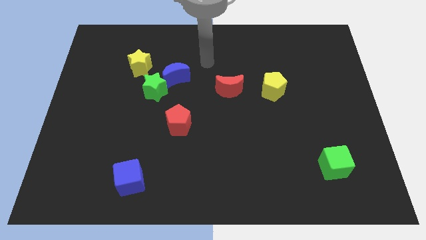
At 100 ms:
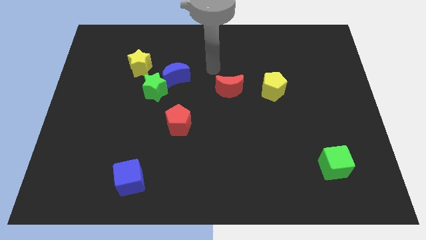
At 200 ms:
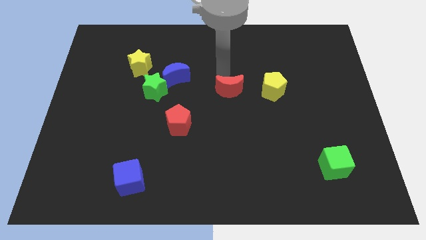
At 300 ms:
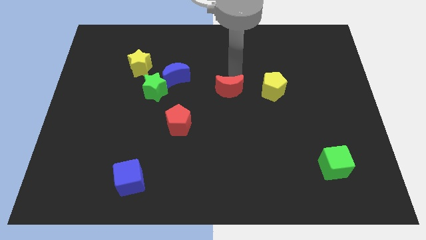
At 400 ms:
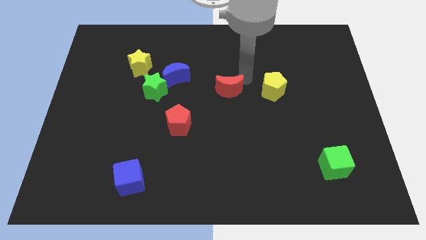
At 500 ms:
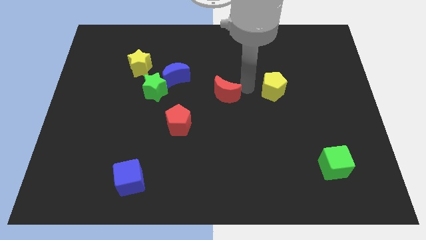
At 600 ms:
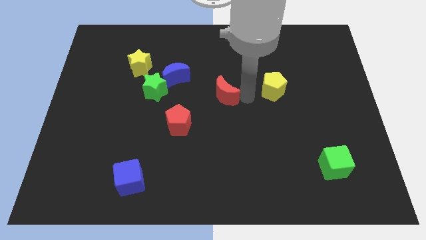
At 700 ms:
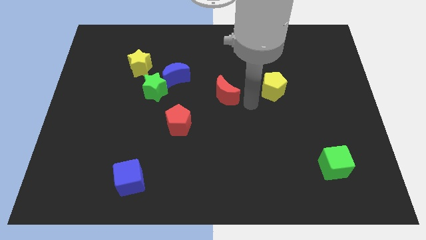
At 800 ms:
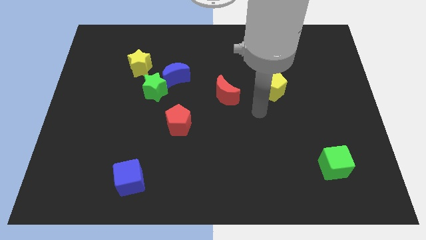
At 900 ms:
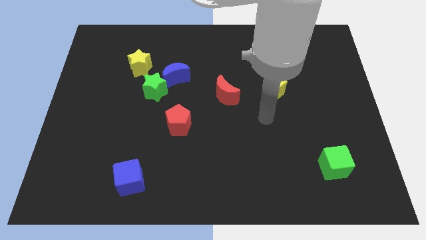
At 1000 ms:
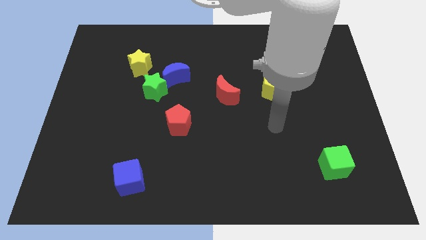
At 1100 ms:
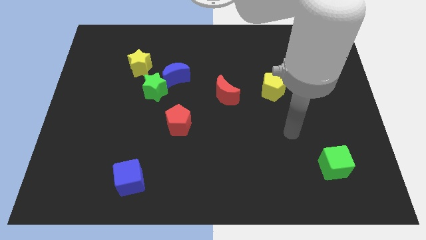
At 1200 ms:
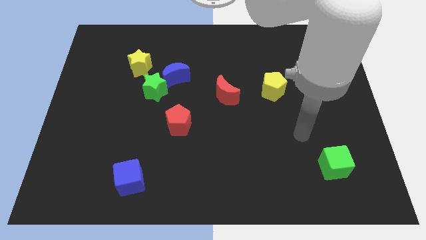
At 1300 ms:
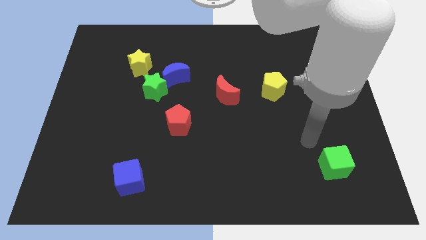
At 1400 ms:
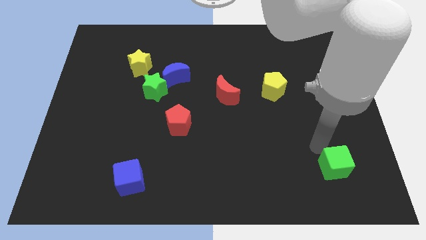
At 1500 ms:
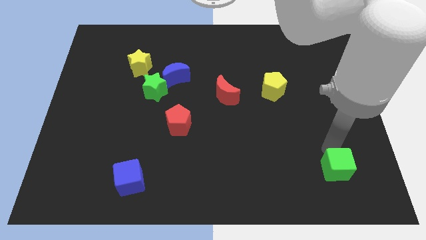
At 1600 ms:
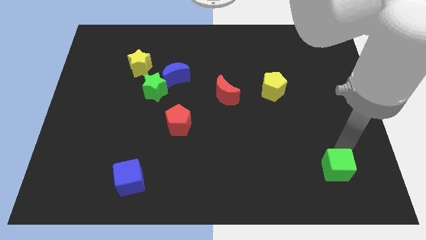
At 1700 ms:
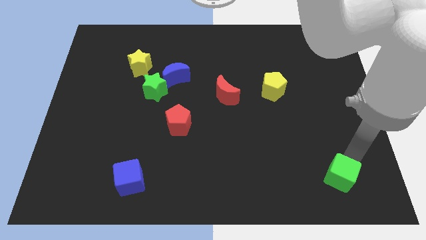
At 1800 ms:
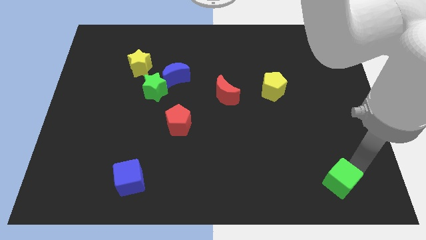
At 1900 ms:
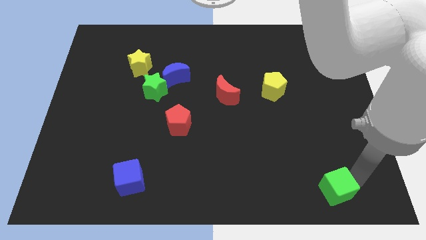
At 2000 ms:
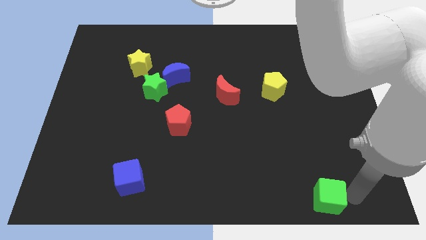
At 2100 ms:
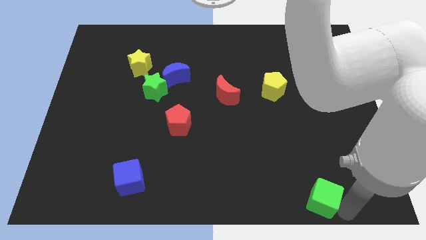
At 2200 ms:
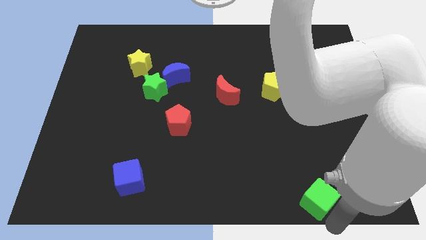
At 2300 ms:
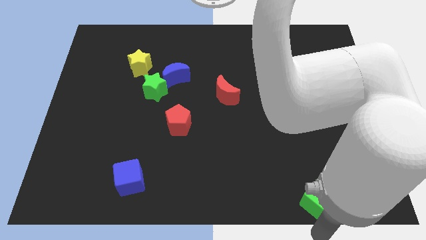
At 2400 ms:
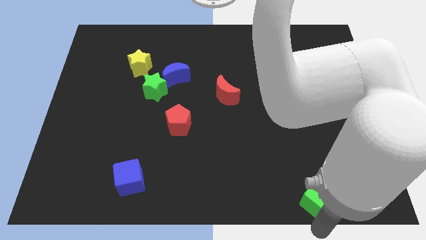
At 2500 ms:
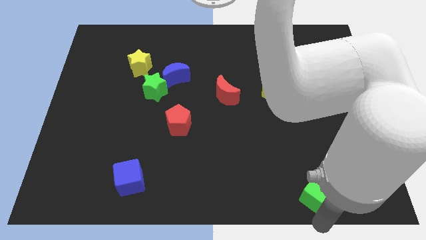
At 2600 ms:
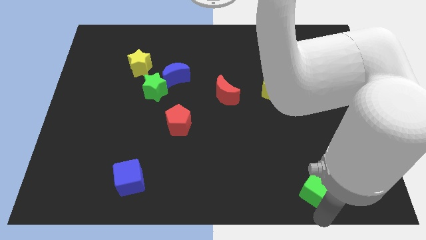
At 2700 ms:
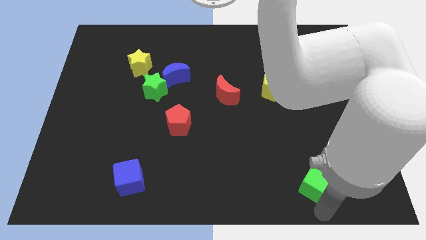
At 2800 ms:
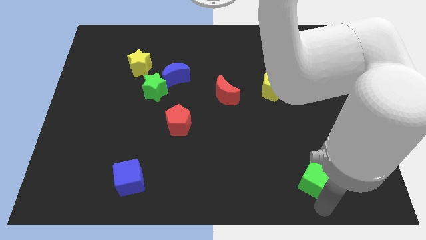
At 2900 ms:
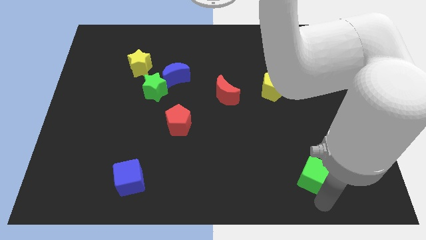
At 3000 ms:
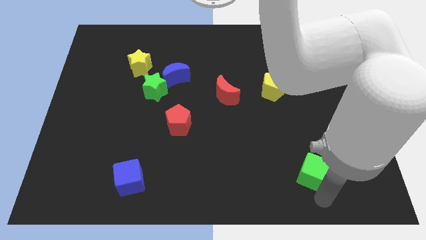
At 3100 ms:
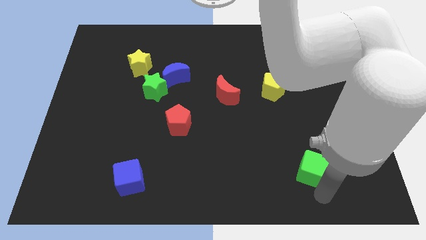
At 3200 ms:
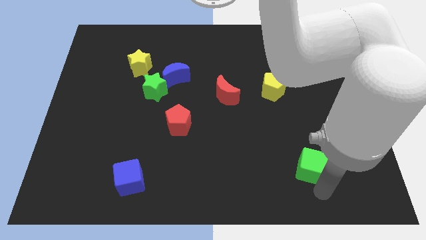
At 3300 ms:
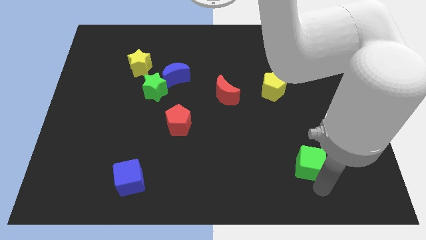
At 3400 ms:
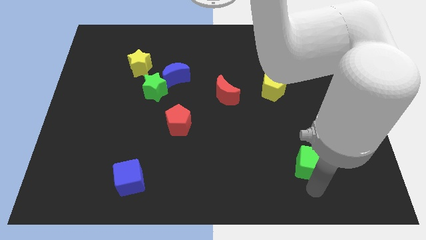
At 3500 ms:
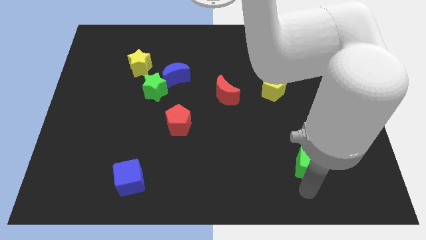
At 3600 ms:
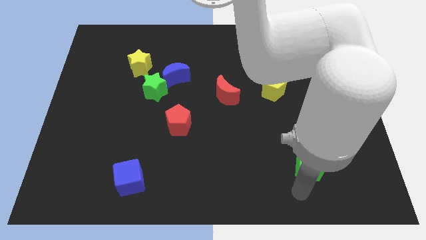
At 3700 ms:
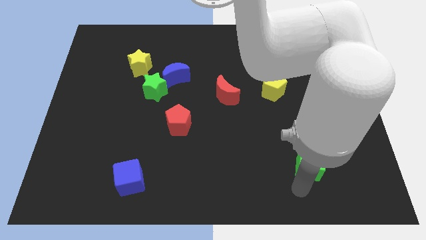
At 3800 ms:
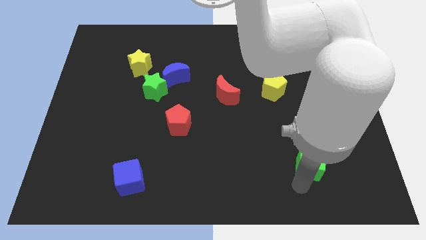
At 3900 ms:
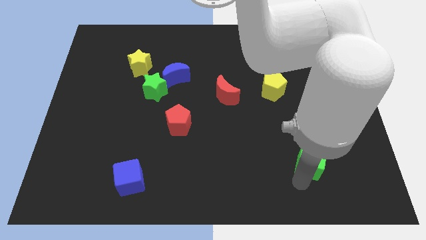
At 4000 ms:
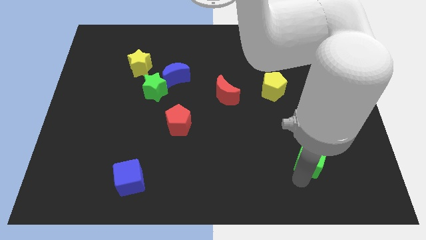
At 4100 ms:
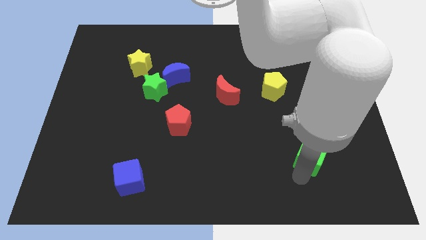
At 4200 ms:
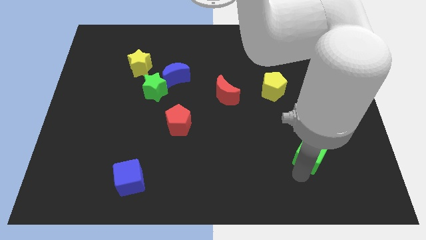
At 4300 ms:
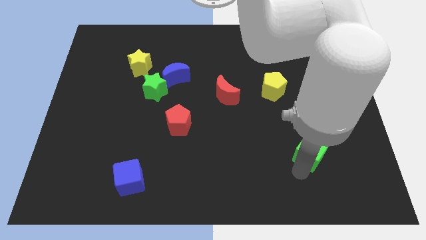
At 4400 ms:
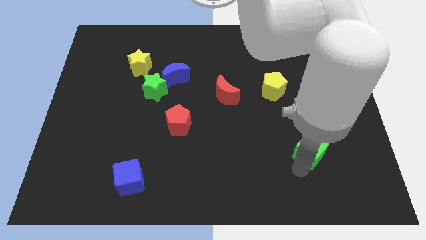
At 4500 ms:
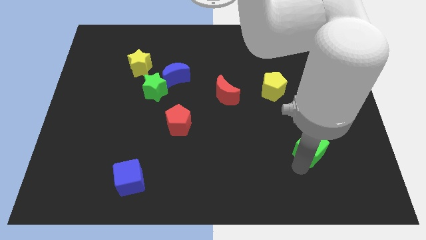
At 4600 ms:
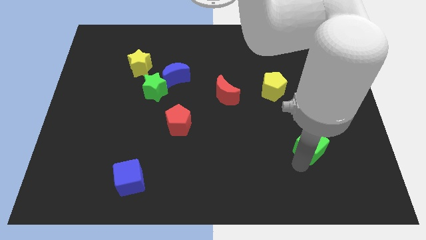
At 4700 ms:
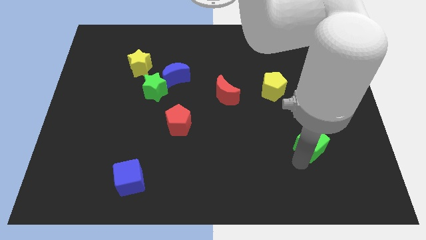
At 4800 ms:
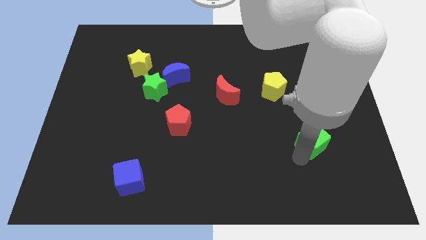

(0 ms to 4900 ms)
slightly slide the green cube upwards and then left

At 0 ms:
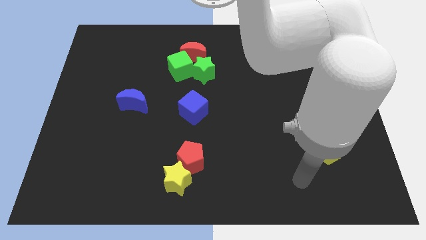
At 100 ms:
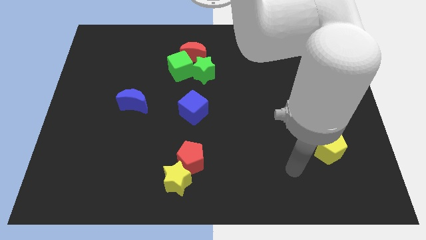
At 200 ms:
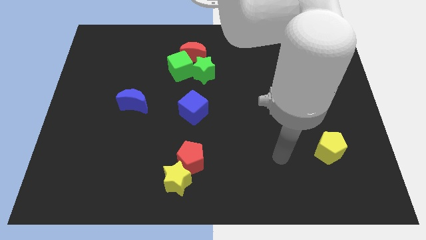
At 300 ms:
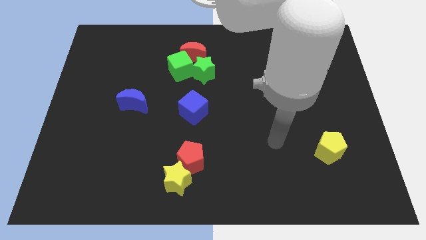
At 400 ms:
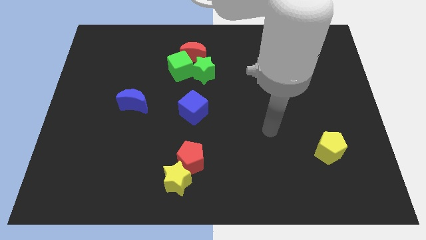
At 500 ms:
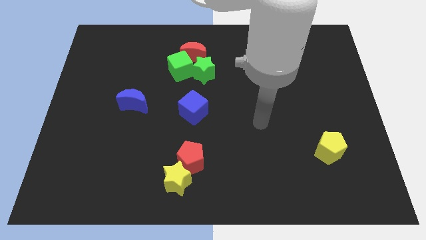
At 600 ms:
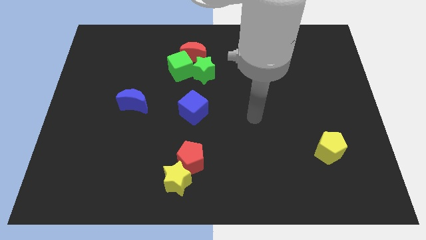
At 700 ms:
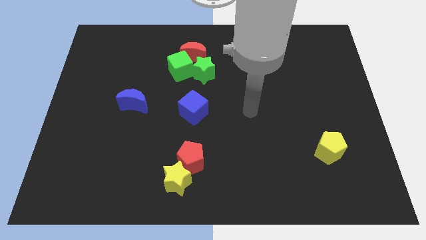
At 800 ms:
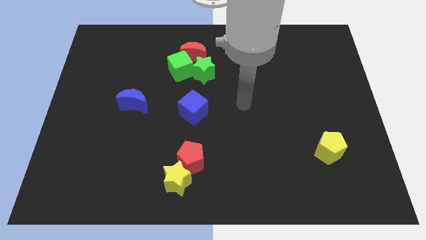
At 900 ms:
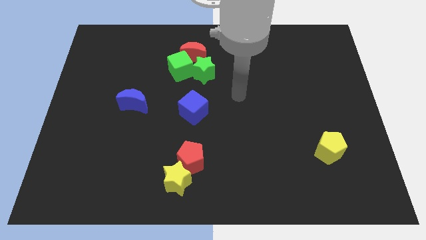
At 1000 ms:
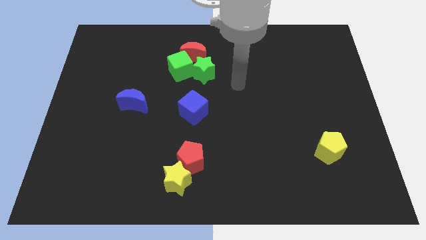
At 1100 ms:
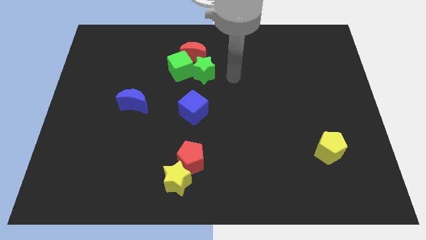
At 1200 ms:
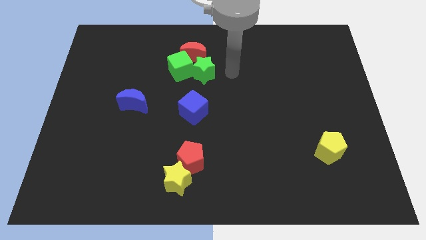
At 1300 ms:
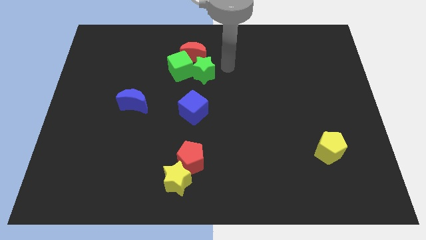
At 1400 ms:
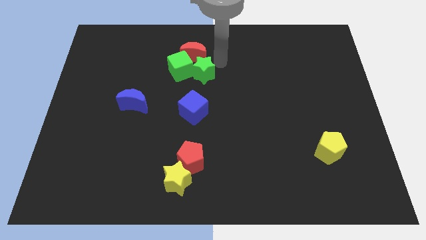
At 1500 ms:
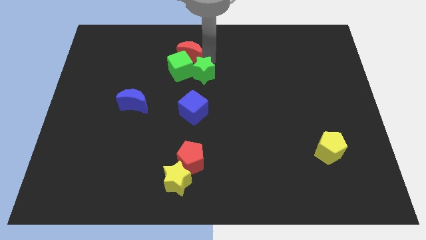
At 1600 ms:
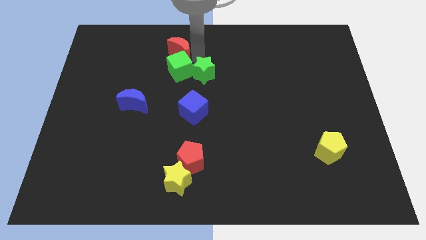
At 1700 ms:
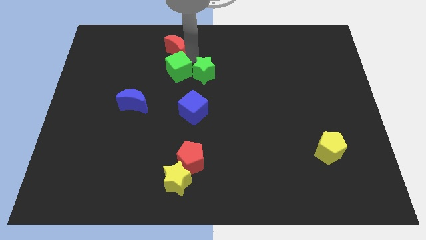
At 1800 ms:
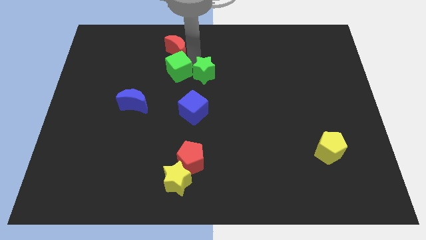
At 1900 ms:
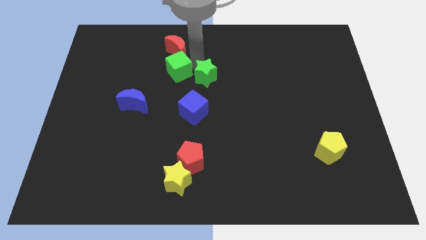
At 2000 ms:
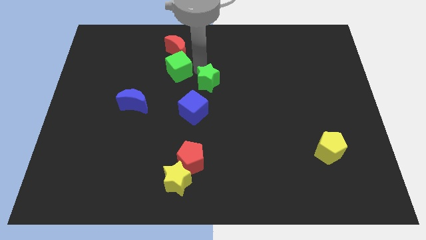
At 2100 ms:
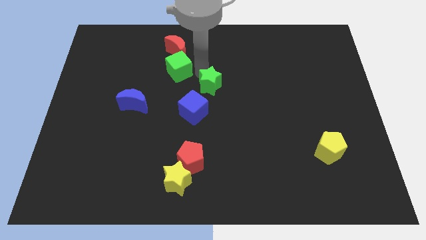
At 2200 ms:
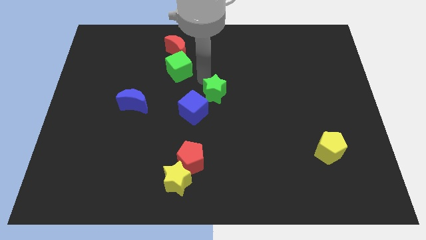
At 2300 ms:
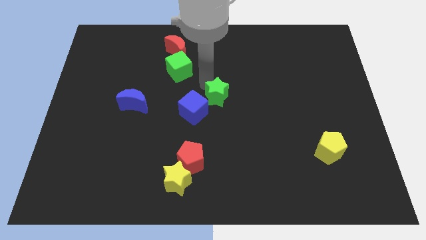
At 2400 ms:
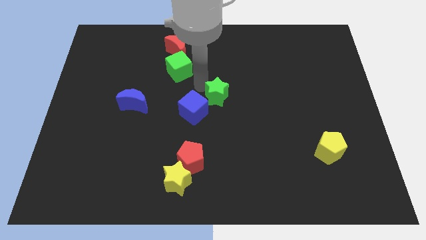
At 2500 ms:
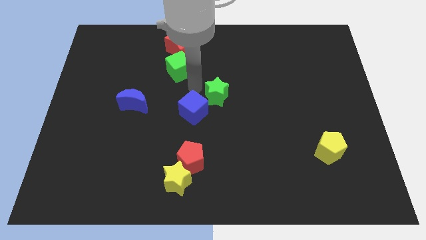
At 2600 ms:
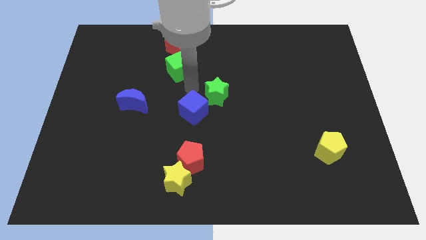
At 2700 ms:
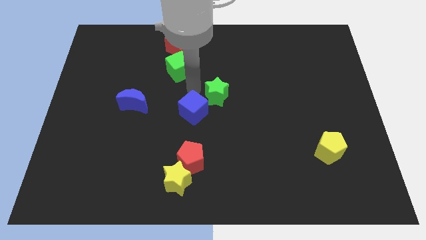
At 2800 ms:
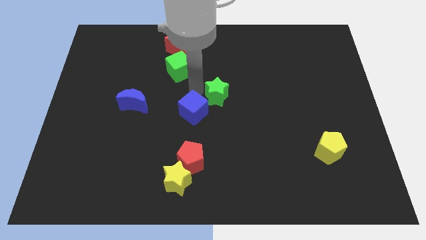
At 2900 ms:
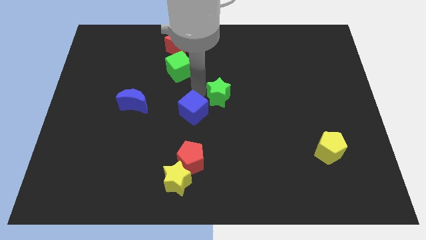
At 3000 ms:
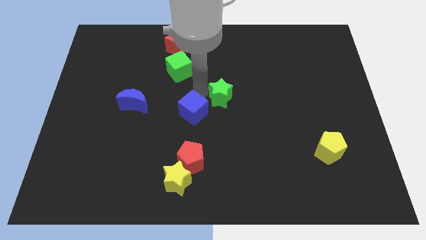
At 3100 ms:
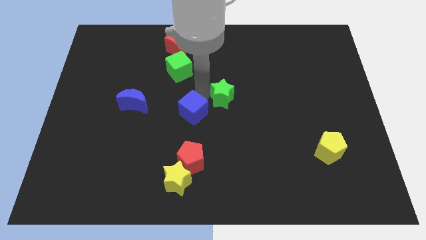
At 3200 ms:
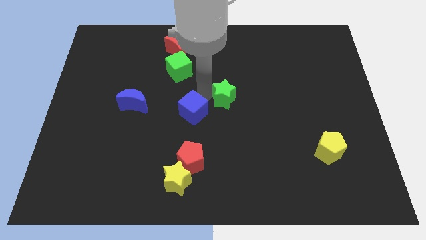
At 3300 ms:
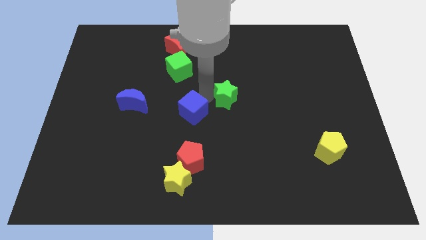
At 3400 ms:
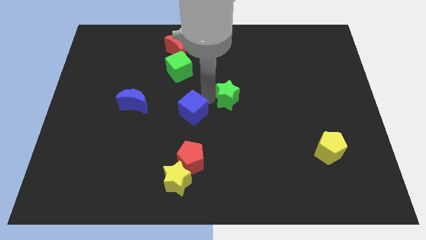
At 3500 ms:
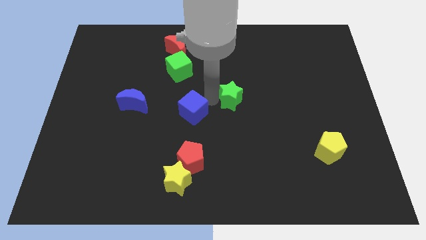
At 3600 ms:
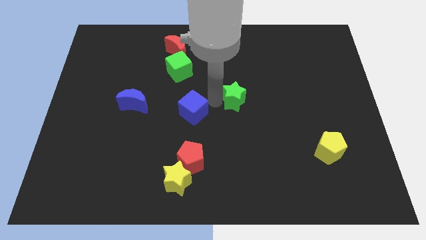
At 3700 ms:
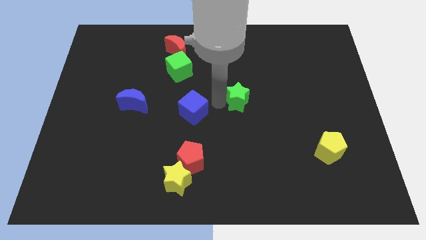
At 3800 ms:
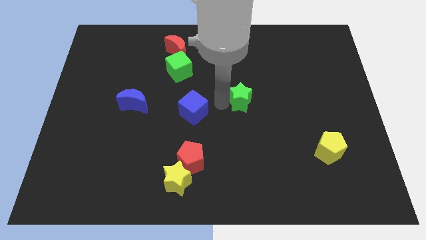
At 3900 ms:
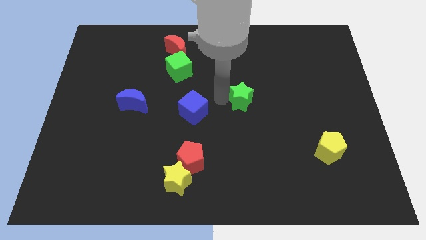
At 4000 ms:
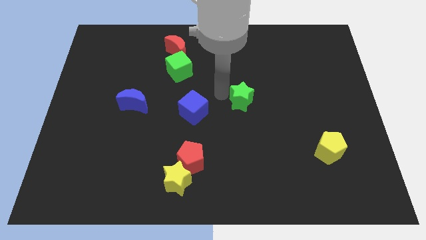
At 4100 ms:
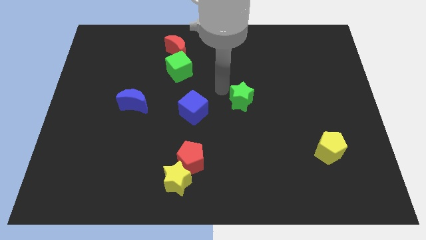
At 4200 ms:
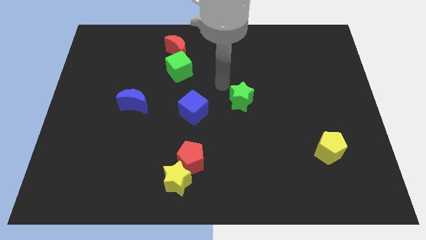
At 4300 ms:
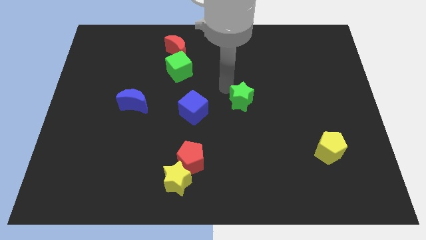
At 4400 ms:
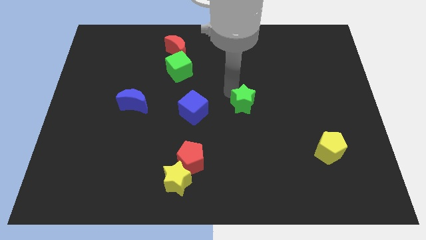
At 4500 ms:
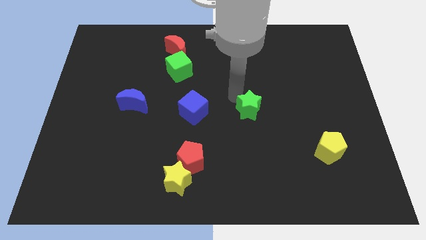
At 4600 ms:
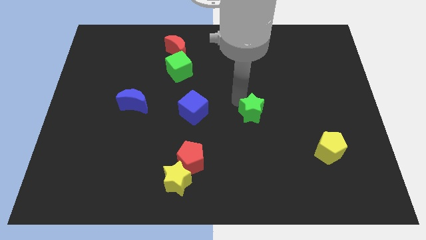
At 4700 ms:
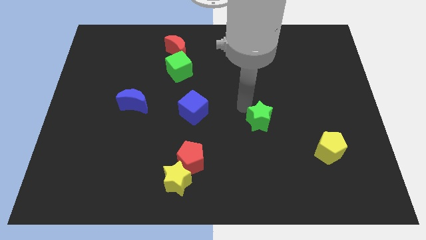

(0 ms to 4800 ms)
move the green star diagonally down and right
